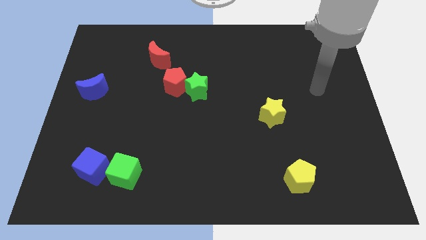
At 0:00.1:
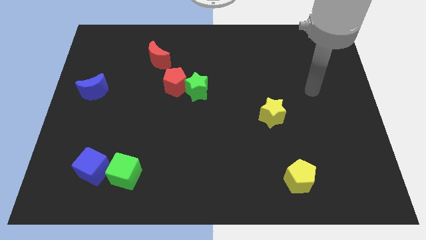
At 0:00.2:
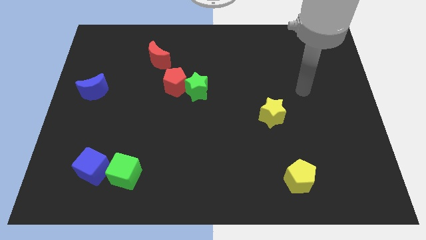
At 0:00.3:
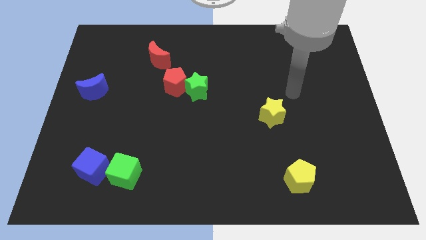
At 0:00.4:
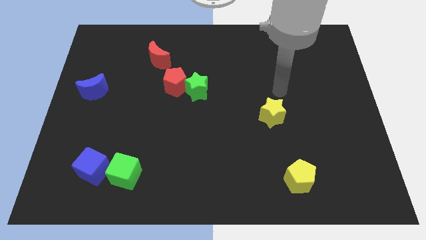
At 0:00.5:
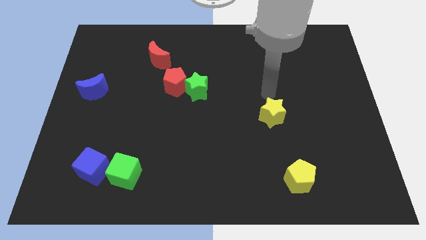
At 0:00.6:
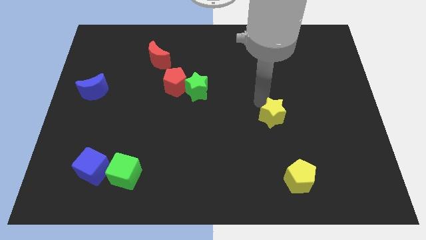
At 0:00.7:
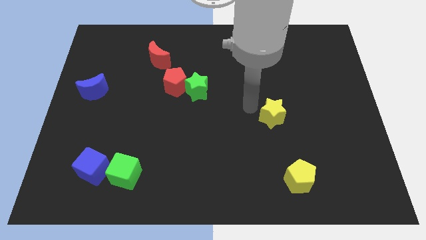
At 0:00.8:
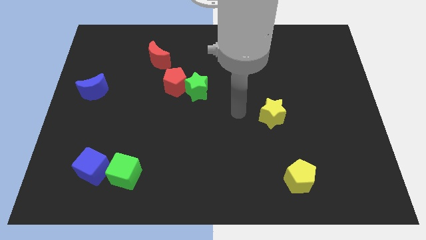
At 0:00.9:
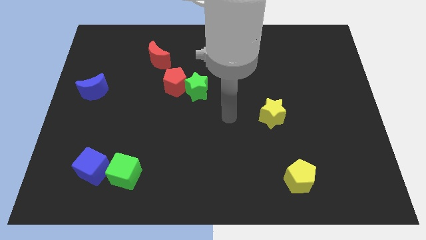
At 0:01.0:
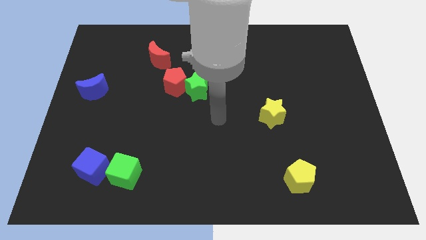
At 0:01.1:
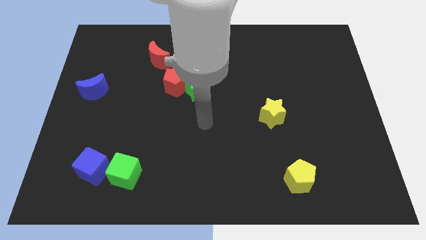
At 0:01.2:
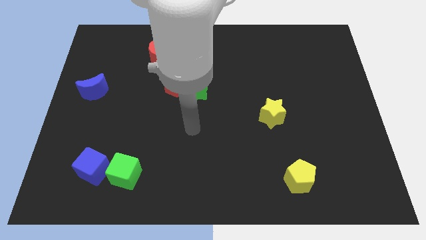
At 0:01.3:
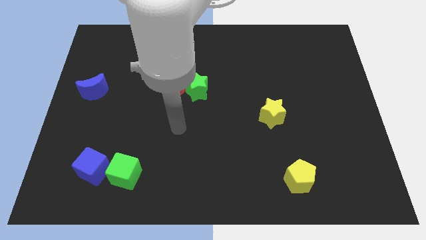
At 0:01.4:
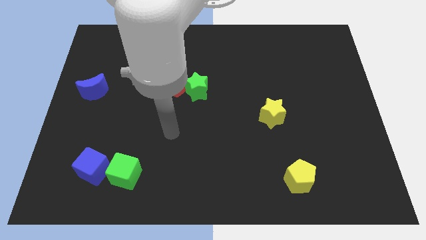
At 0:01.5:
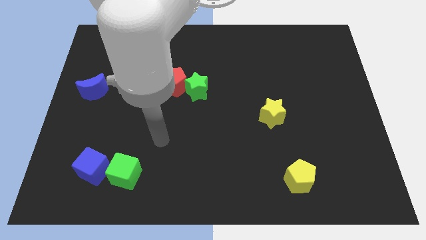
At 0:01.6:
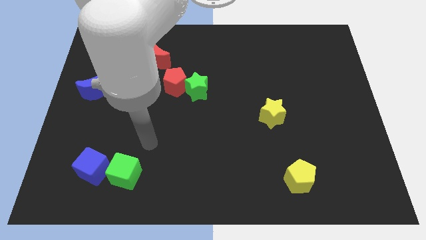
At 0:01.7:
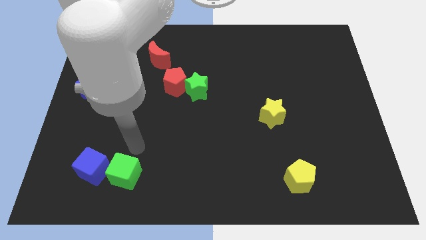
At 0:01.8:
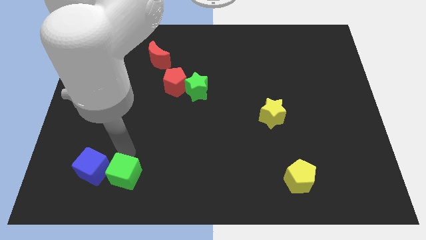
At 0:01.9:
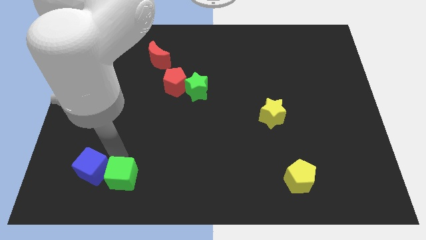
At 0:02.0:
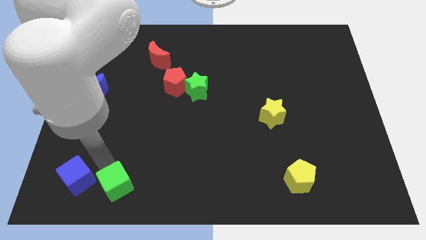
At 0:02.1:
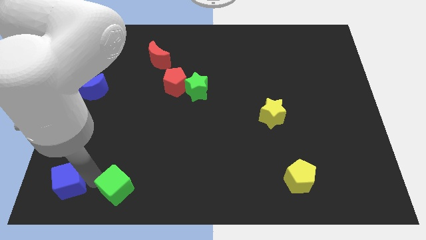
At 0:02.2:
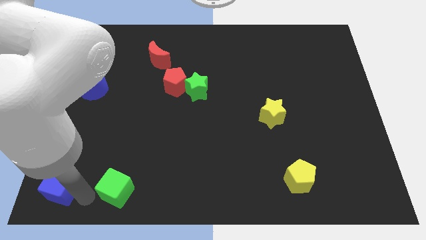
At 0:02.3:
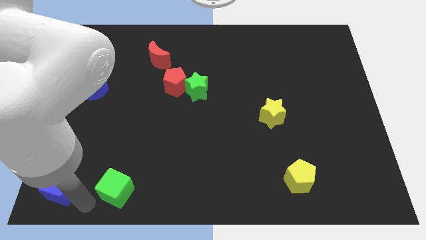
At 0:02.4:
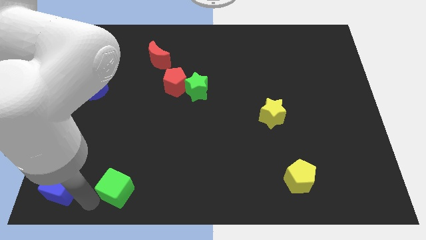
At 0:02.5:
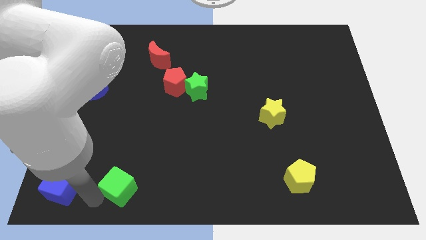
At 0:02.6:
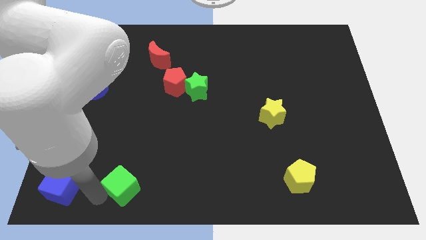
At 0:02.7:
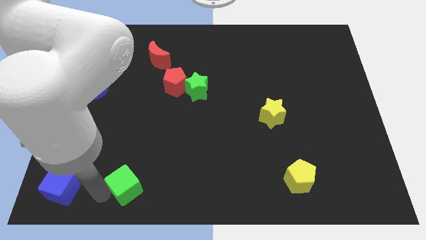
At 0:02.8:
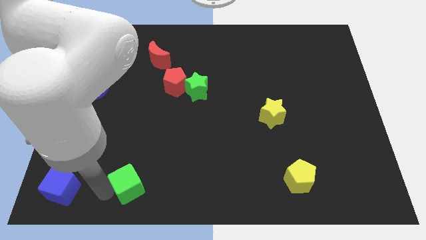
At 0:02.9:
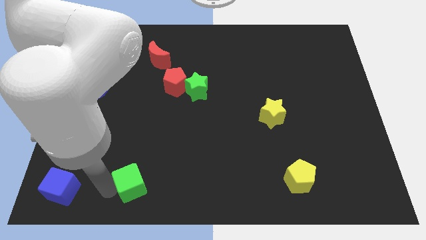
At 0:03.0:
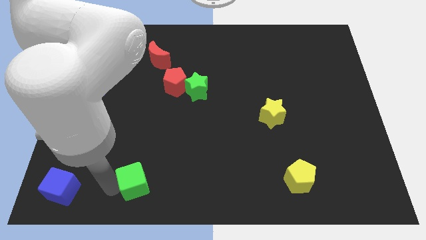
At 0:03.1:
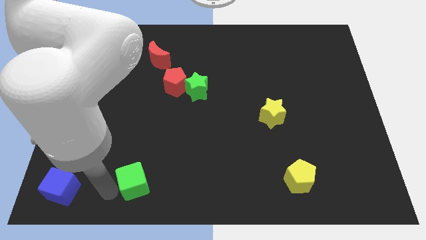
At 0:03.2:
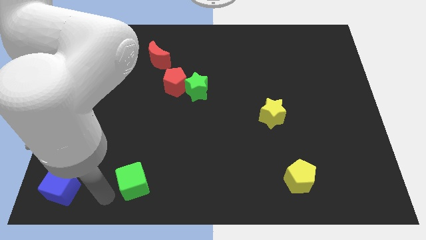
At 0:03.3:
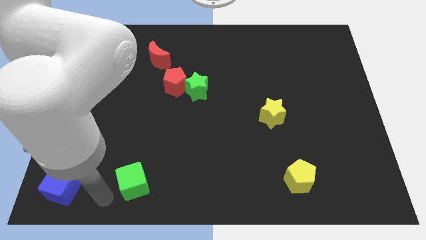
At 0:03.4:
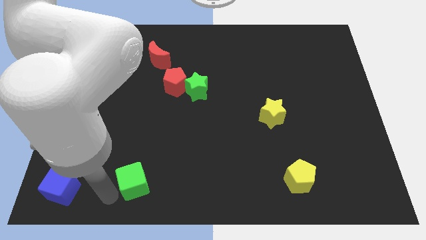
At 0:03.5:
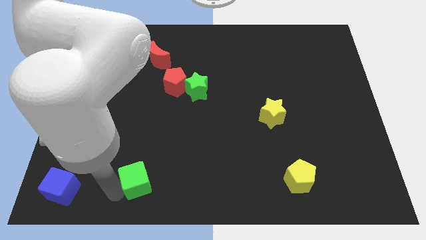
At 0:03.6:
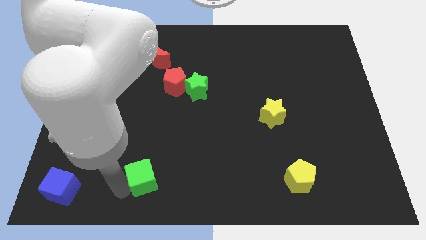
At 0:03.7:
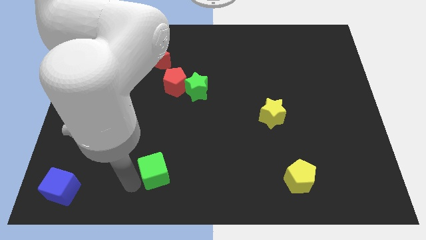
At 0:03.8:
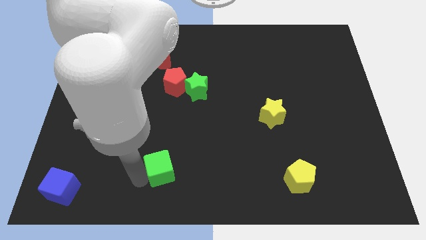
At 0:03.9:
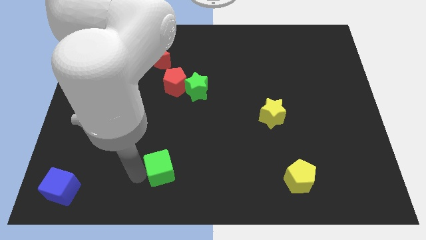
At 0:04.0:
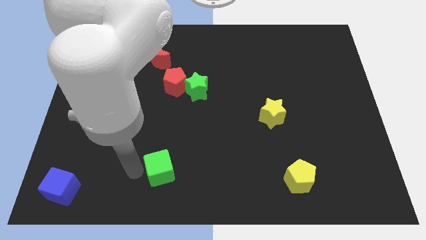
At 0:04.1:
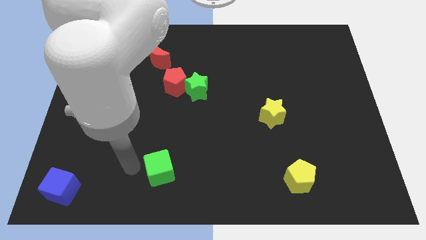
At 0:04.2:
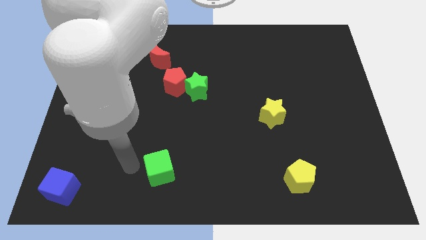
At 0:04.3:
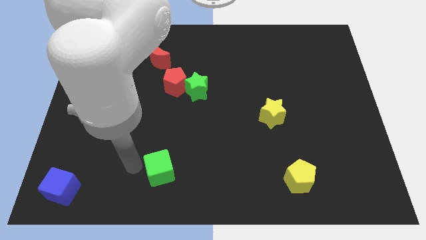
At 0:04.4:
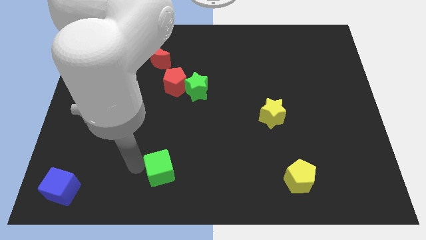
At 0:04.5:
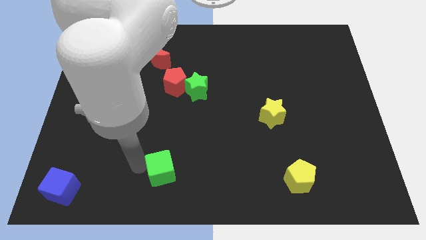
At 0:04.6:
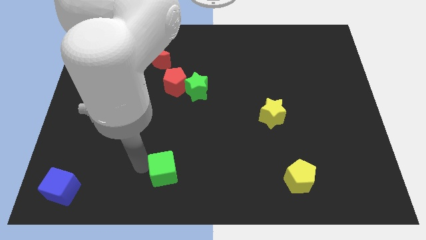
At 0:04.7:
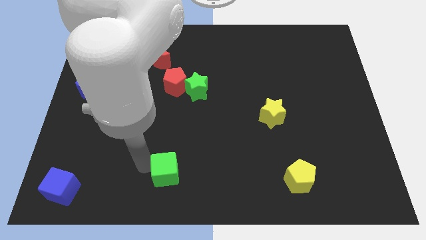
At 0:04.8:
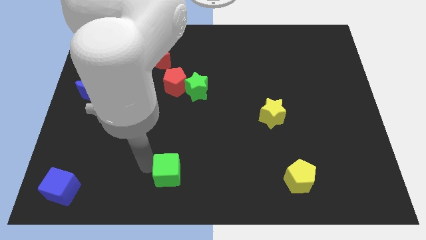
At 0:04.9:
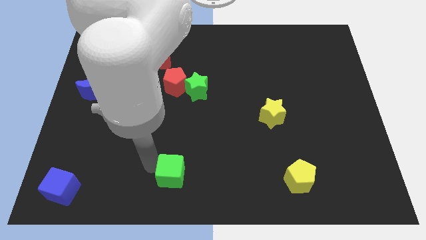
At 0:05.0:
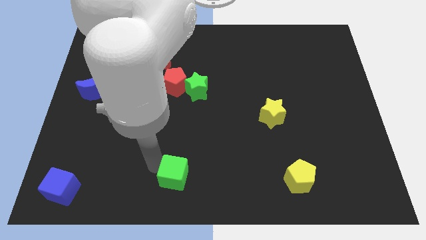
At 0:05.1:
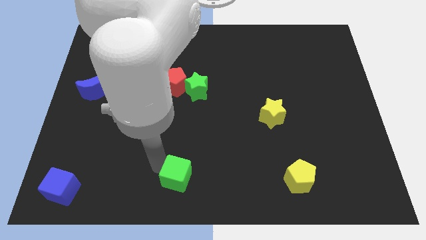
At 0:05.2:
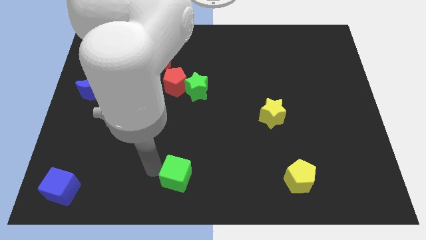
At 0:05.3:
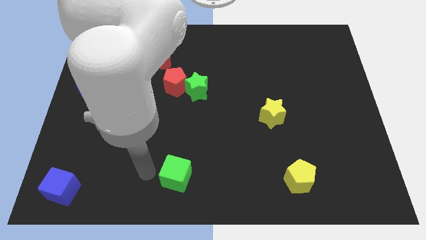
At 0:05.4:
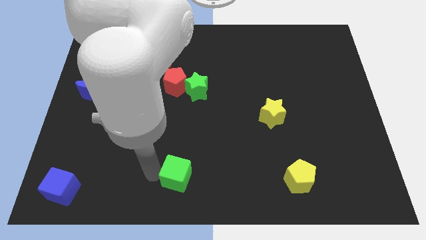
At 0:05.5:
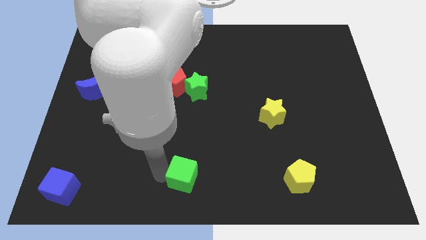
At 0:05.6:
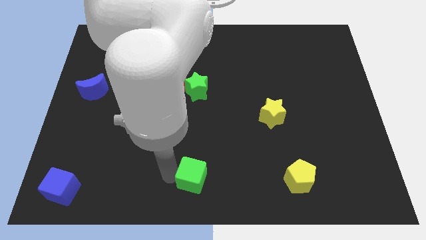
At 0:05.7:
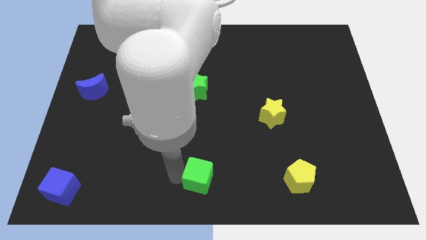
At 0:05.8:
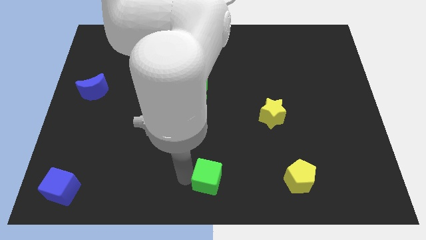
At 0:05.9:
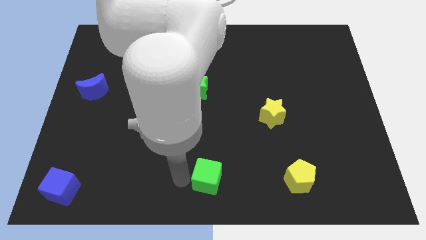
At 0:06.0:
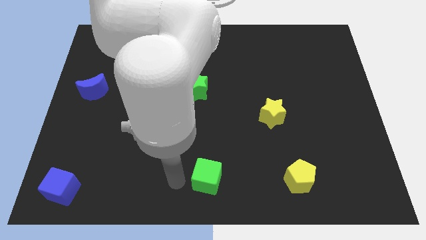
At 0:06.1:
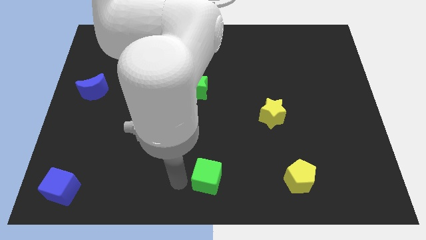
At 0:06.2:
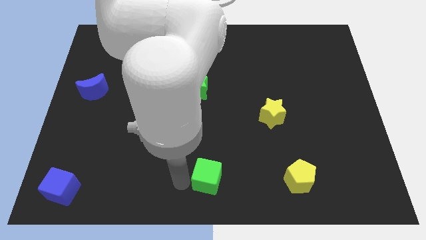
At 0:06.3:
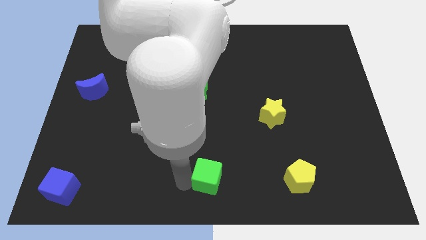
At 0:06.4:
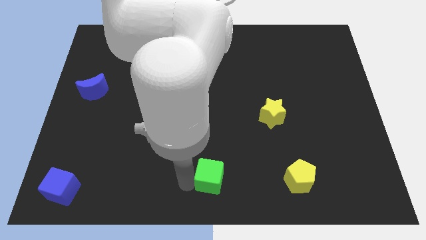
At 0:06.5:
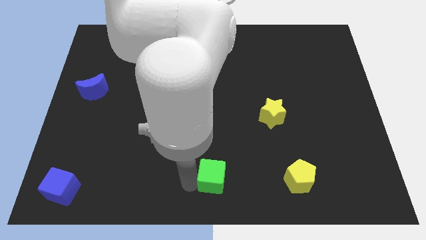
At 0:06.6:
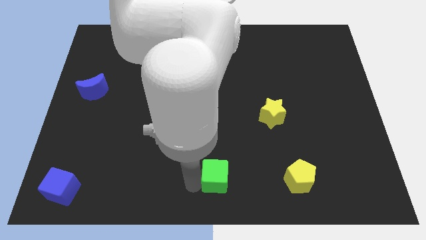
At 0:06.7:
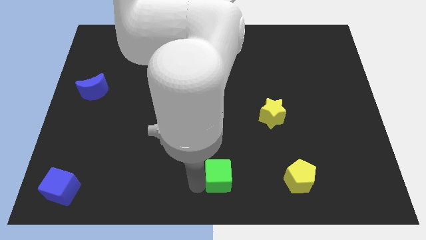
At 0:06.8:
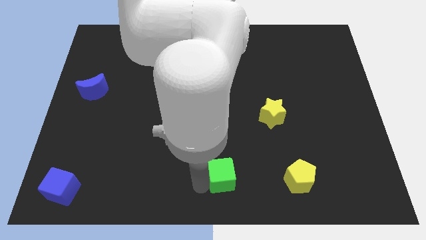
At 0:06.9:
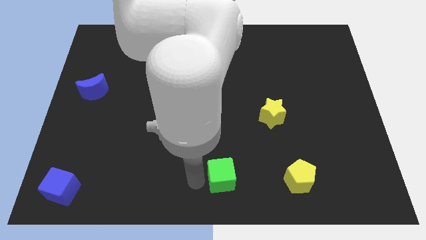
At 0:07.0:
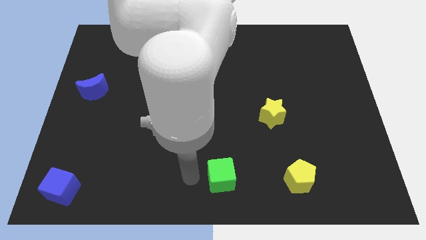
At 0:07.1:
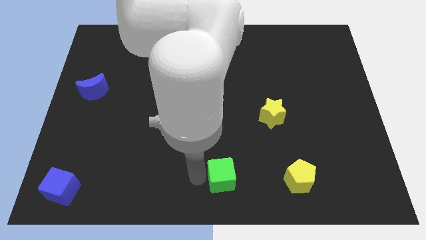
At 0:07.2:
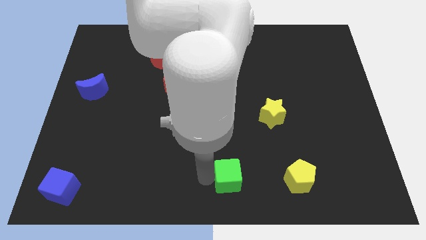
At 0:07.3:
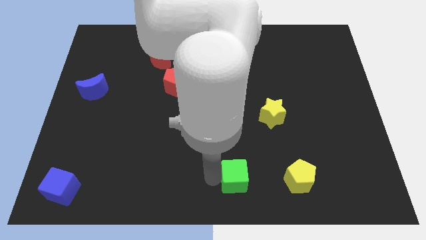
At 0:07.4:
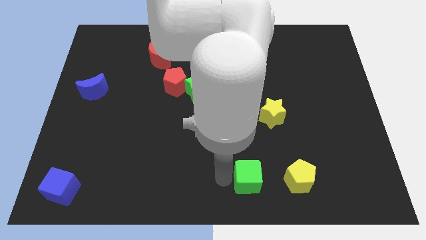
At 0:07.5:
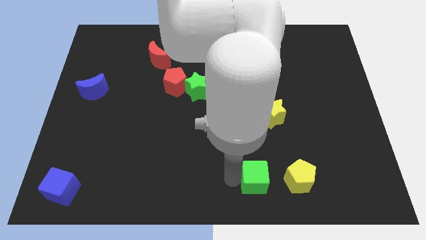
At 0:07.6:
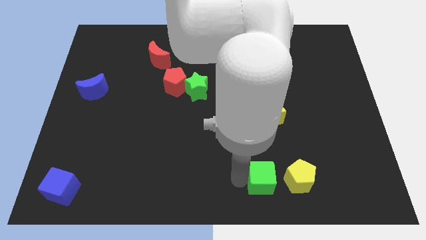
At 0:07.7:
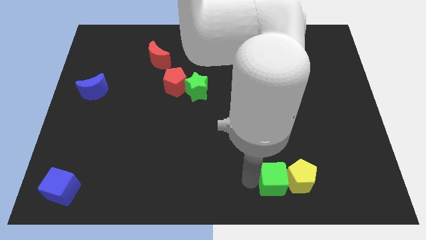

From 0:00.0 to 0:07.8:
put the green cube towards the yellow pentagon
